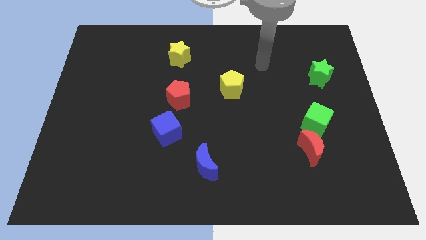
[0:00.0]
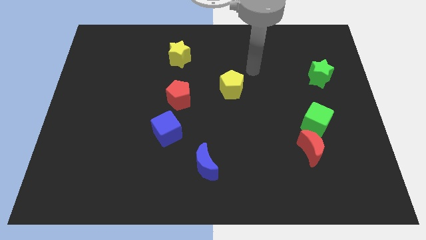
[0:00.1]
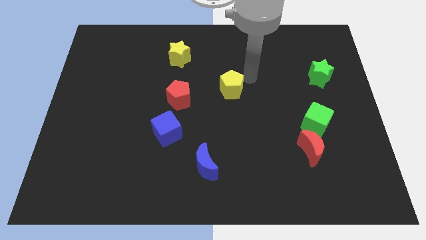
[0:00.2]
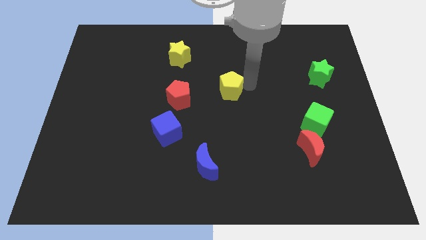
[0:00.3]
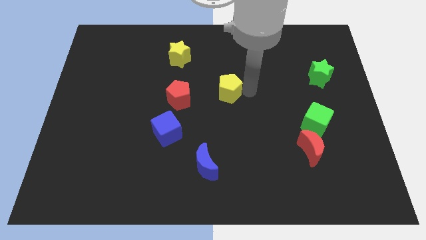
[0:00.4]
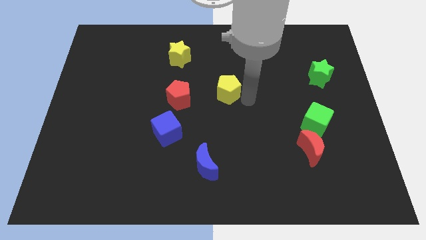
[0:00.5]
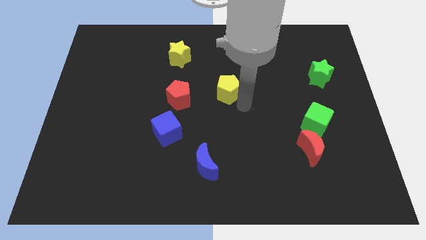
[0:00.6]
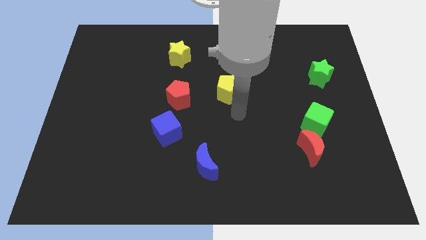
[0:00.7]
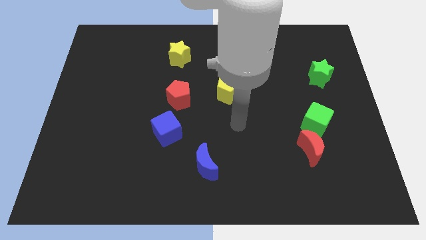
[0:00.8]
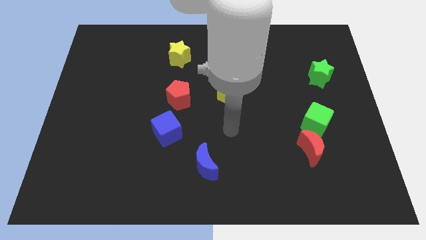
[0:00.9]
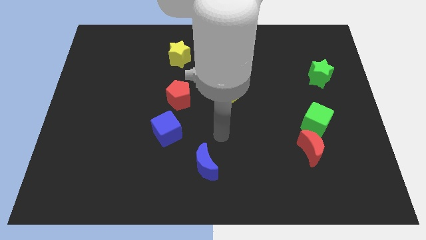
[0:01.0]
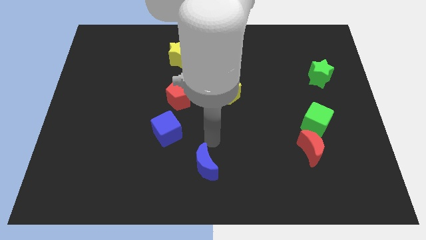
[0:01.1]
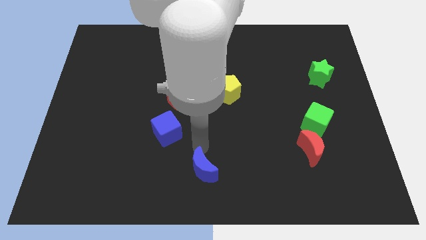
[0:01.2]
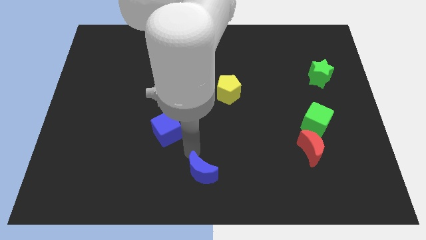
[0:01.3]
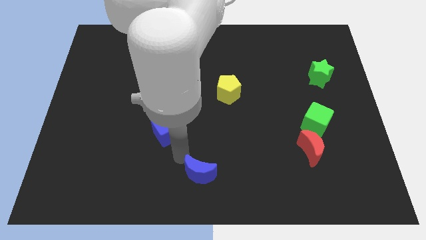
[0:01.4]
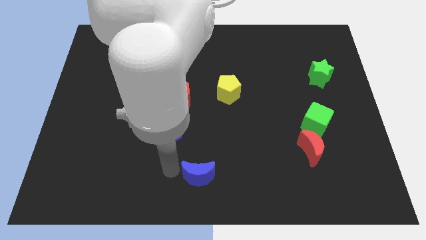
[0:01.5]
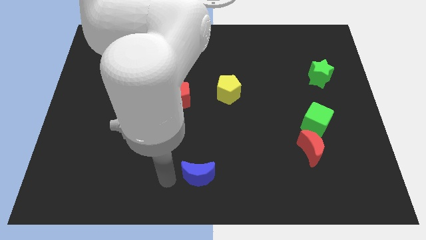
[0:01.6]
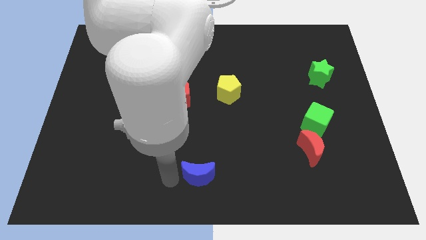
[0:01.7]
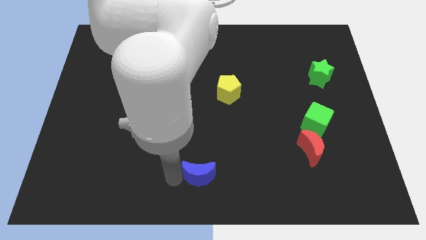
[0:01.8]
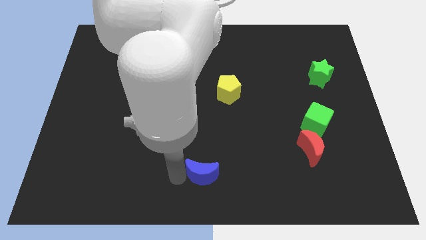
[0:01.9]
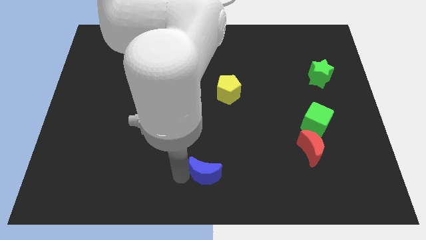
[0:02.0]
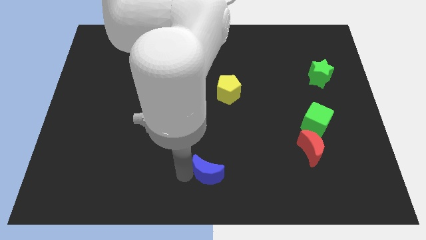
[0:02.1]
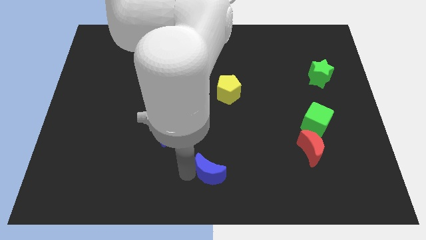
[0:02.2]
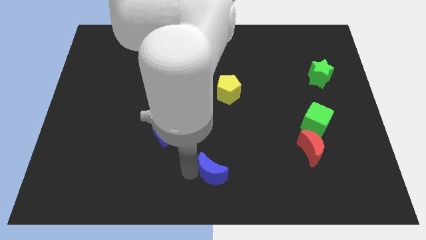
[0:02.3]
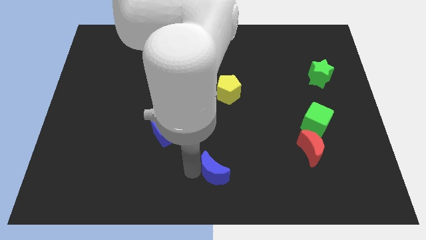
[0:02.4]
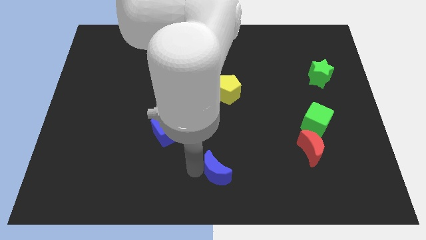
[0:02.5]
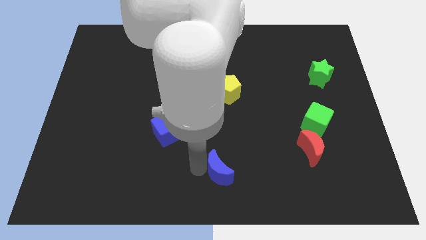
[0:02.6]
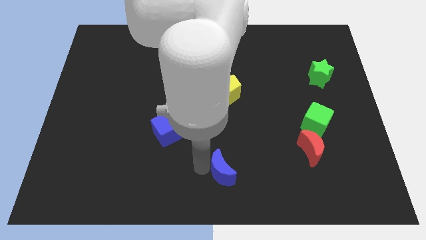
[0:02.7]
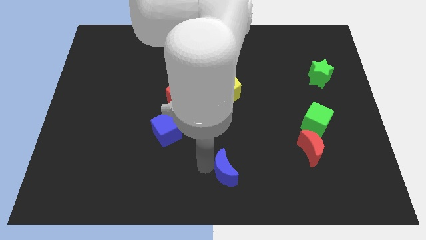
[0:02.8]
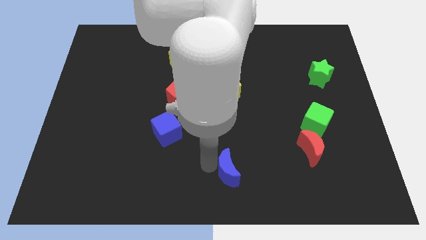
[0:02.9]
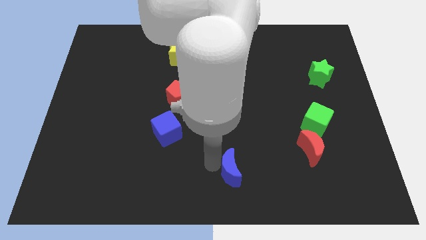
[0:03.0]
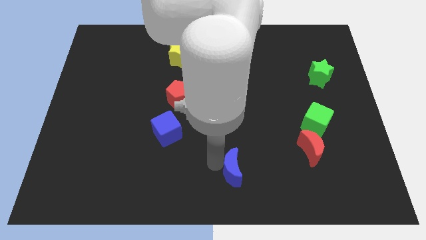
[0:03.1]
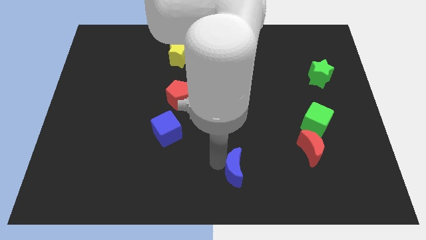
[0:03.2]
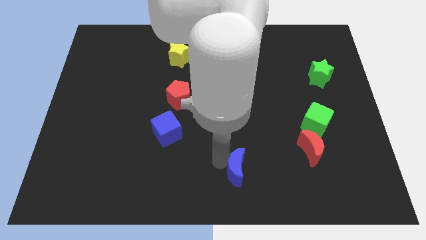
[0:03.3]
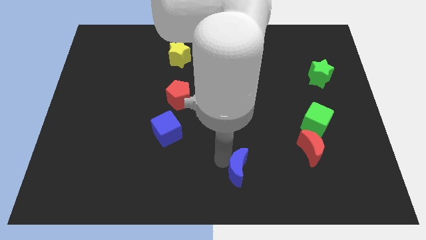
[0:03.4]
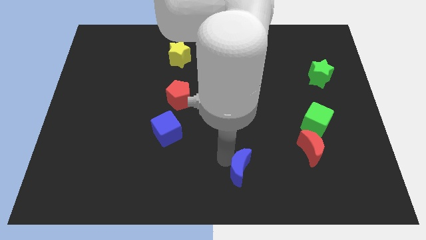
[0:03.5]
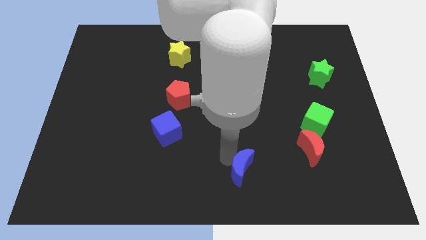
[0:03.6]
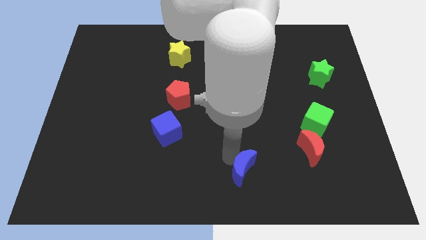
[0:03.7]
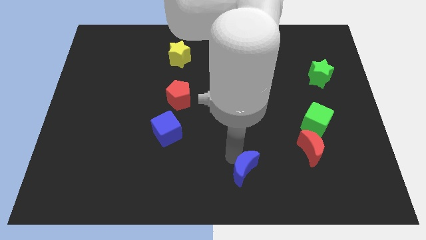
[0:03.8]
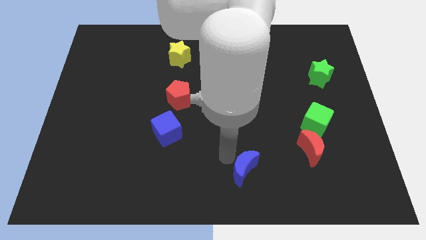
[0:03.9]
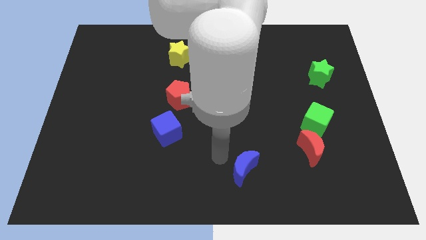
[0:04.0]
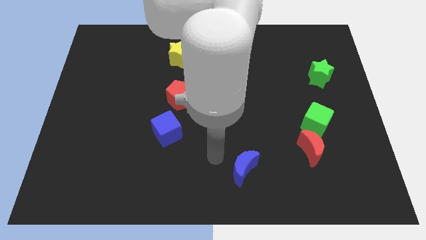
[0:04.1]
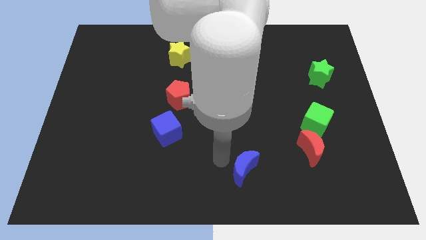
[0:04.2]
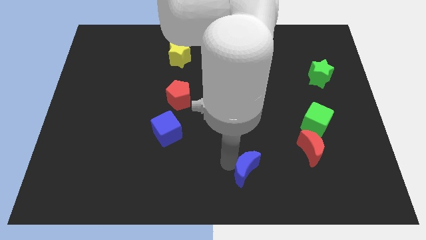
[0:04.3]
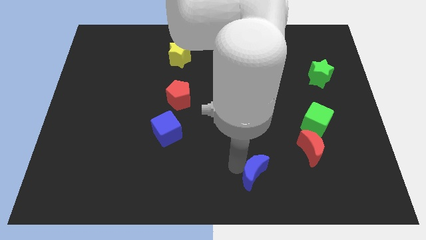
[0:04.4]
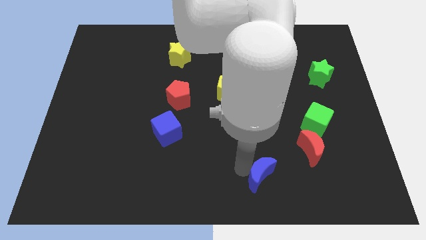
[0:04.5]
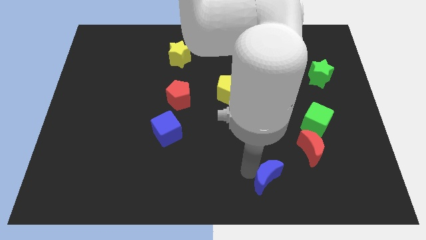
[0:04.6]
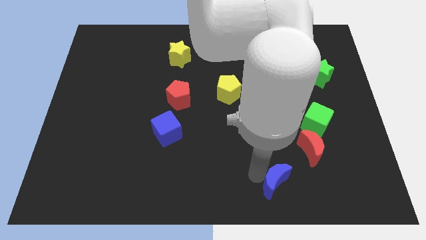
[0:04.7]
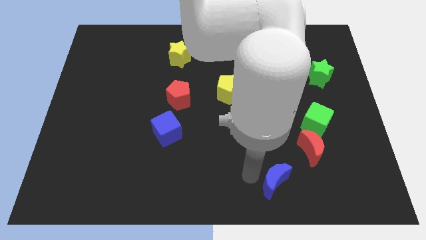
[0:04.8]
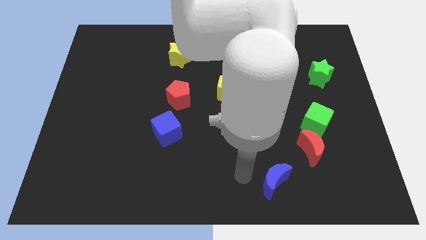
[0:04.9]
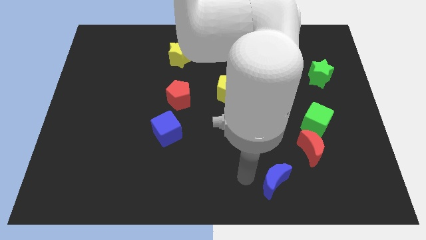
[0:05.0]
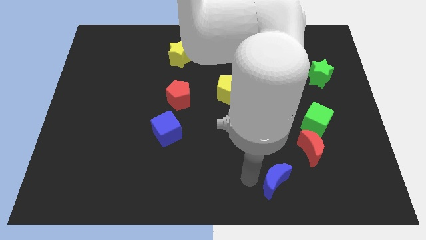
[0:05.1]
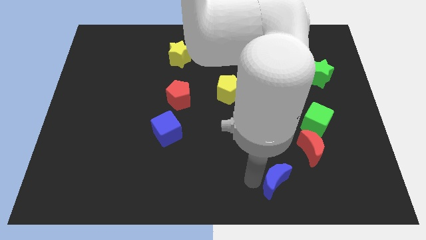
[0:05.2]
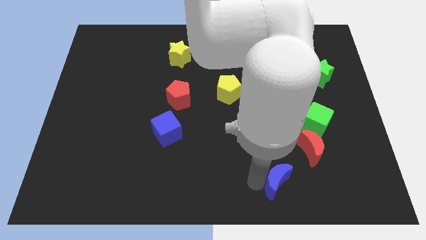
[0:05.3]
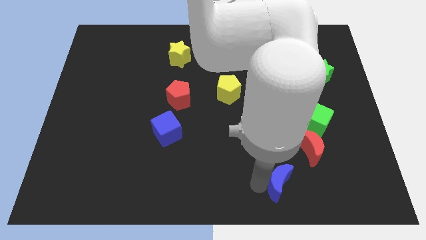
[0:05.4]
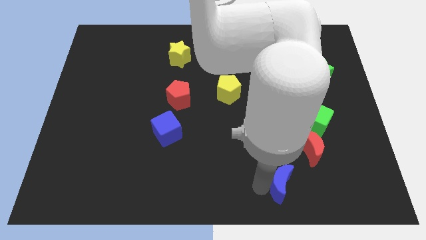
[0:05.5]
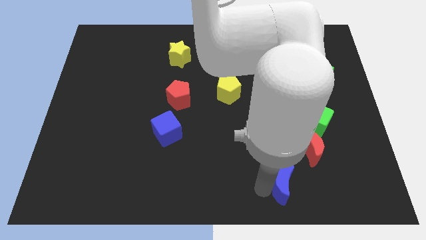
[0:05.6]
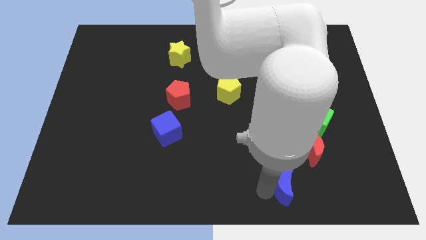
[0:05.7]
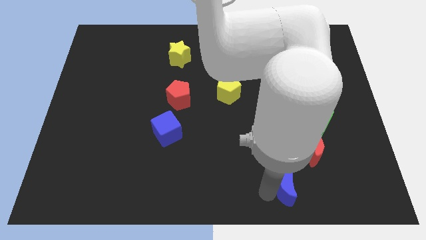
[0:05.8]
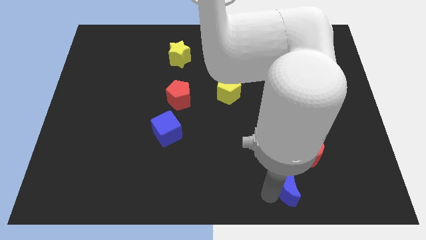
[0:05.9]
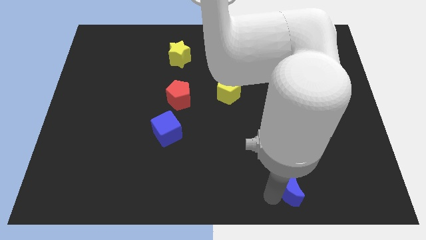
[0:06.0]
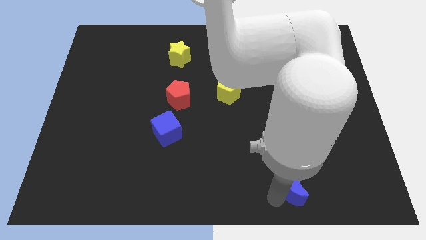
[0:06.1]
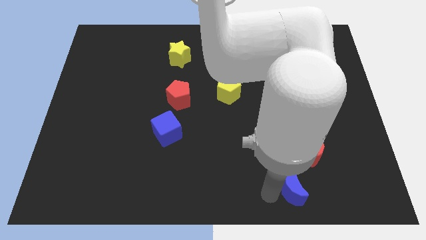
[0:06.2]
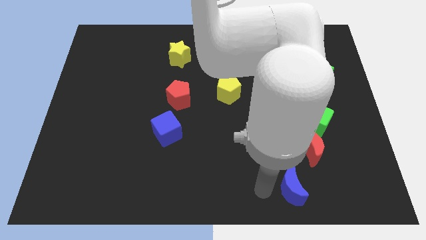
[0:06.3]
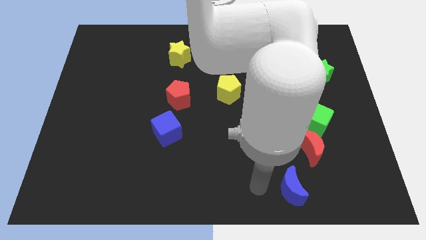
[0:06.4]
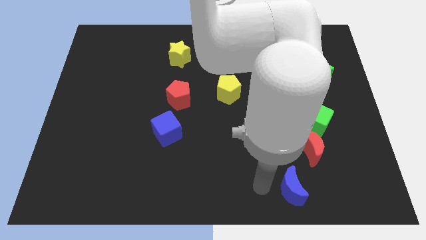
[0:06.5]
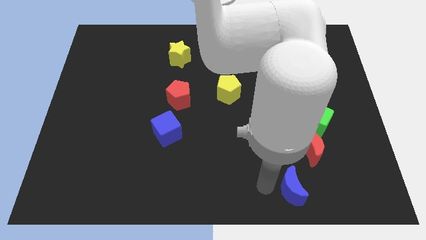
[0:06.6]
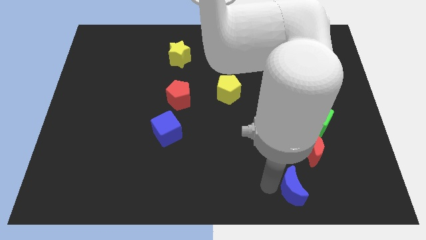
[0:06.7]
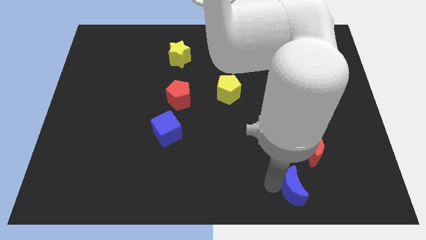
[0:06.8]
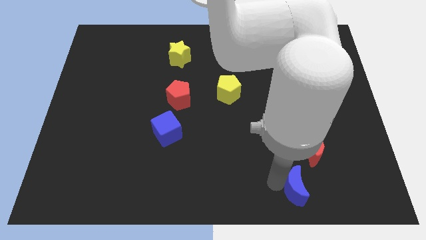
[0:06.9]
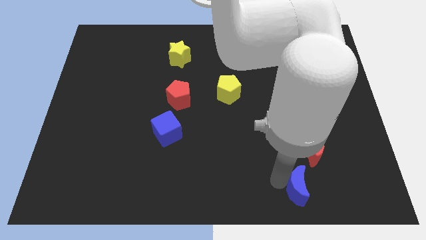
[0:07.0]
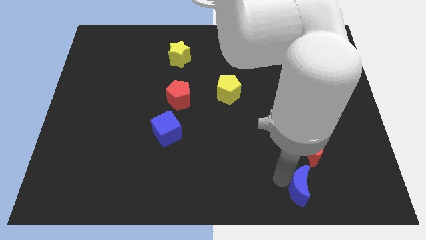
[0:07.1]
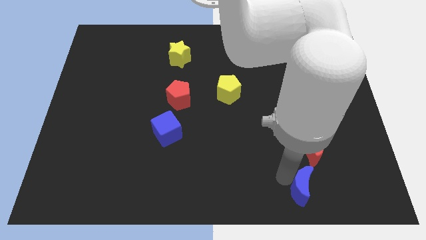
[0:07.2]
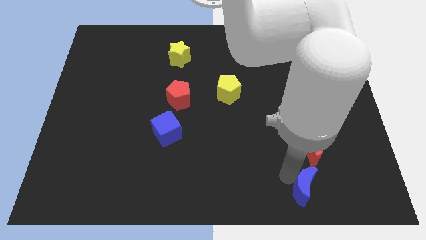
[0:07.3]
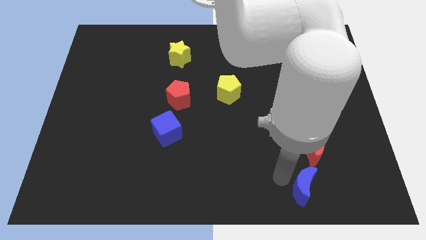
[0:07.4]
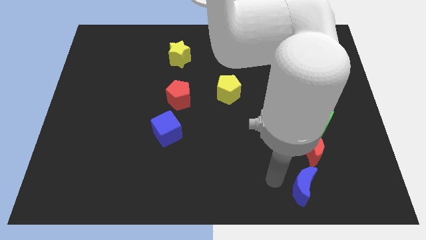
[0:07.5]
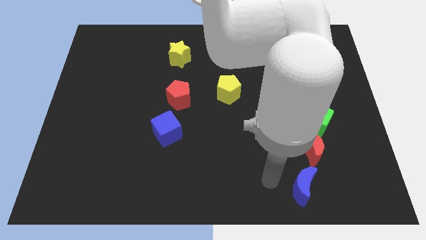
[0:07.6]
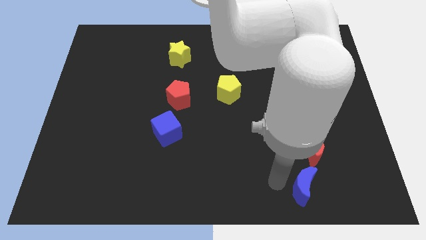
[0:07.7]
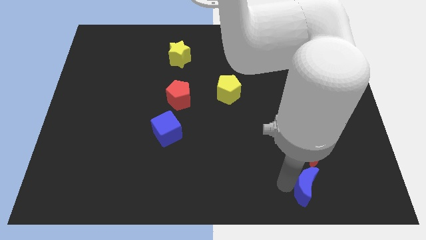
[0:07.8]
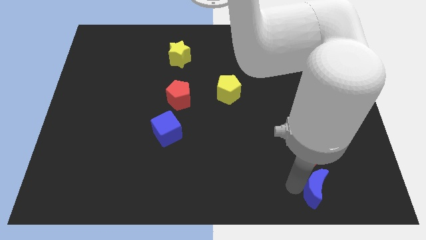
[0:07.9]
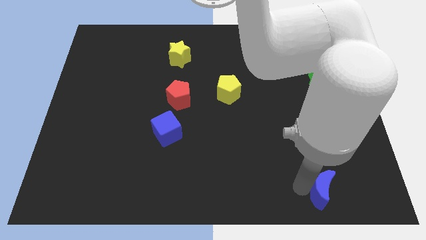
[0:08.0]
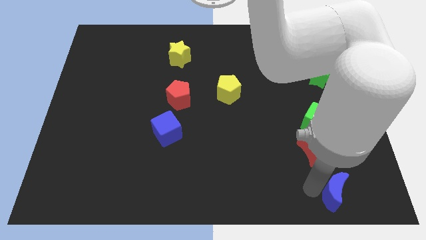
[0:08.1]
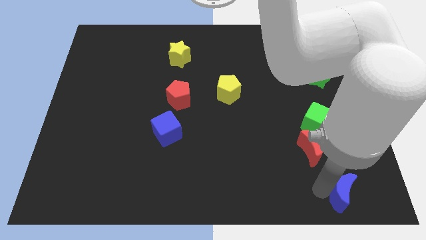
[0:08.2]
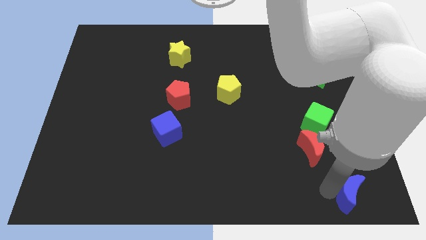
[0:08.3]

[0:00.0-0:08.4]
put the blue moon to the bottom right
